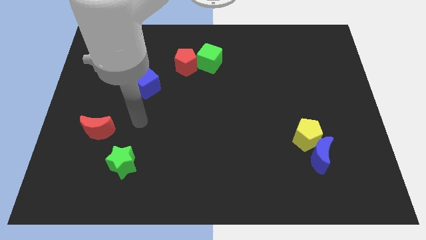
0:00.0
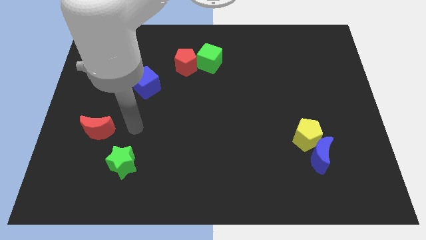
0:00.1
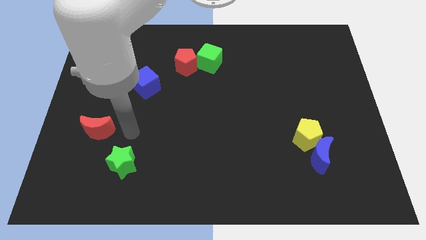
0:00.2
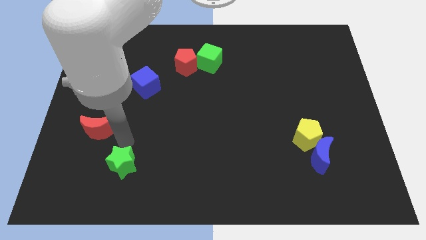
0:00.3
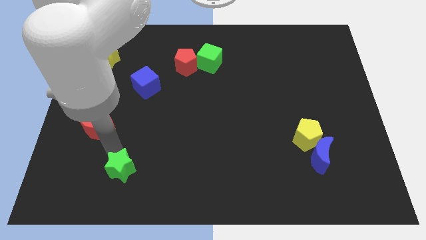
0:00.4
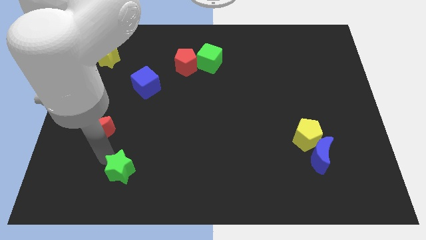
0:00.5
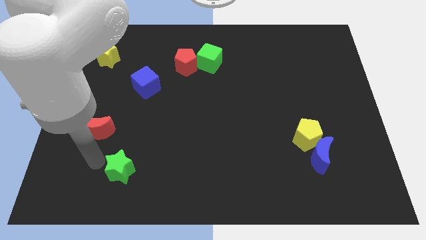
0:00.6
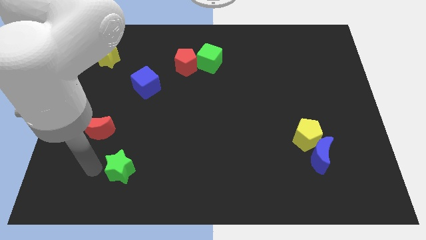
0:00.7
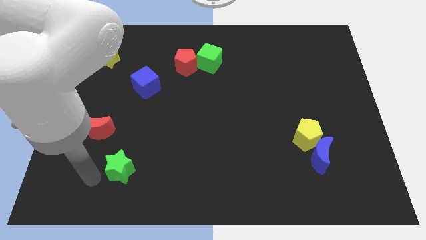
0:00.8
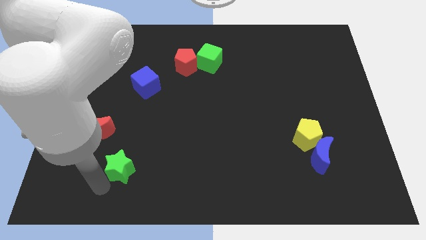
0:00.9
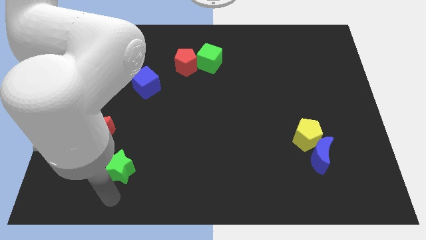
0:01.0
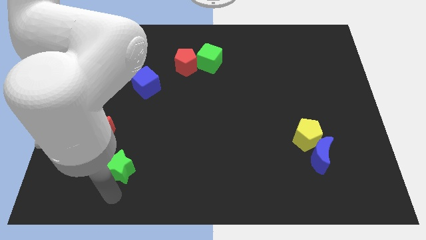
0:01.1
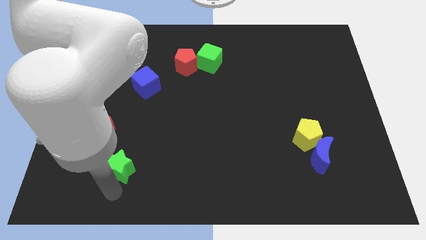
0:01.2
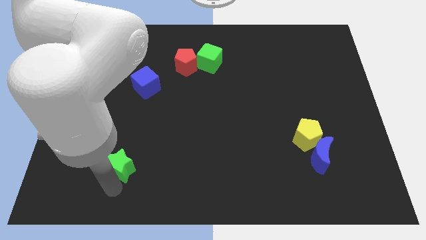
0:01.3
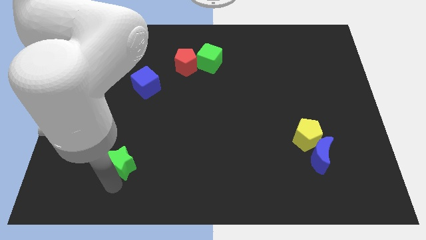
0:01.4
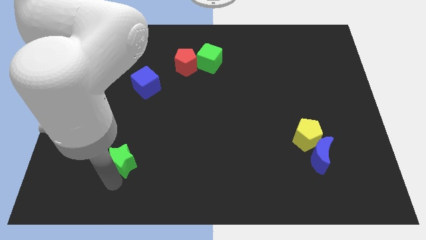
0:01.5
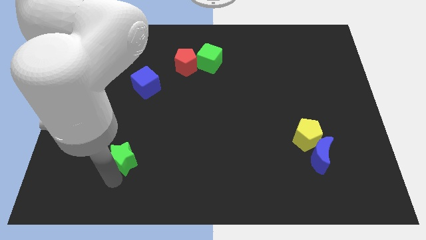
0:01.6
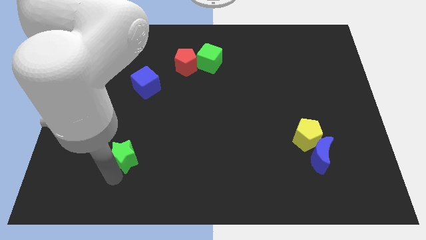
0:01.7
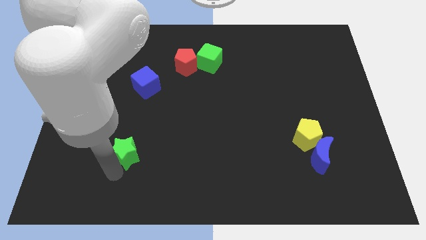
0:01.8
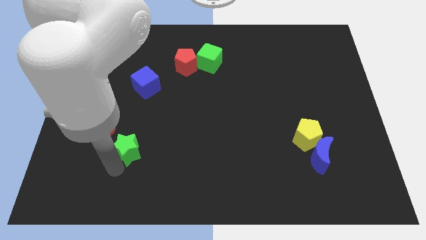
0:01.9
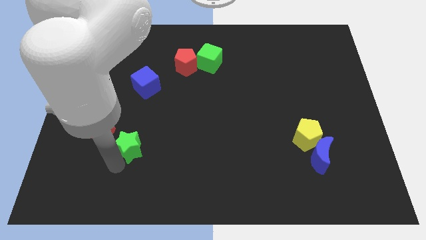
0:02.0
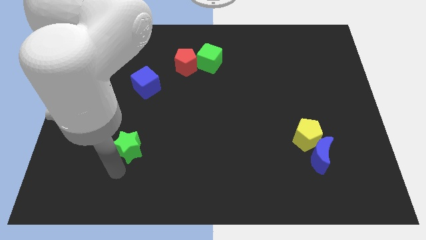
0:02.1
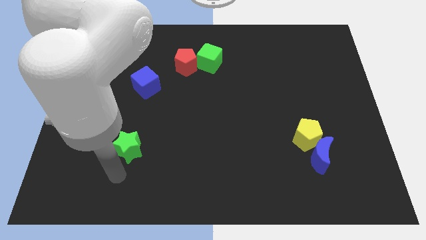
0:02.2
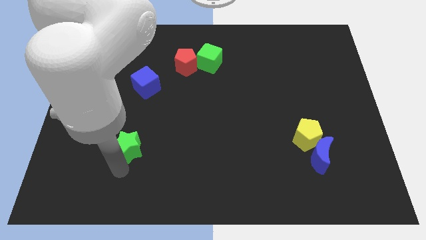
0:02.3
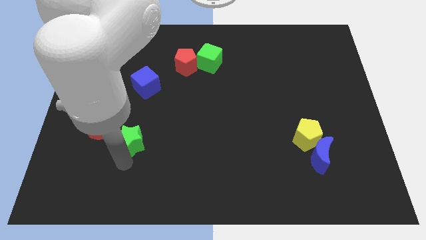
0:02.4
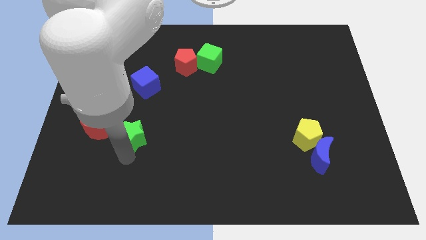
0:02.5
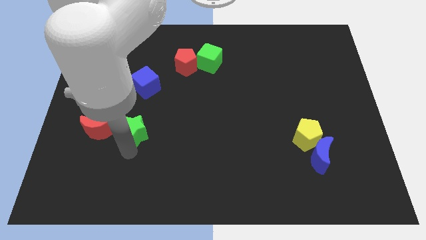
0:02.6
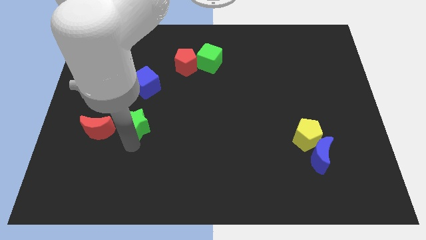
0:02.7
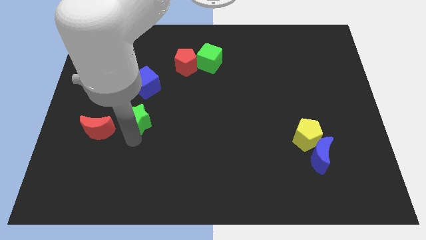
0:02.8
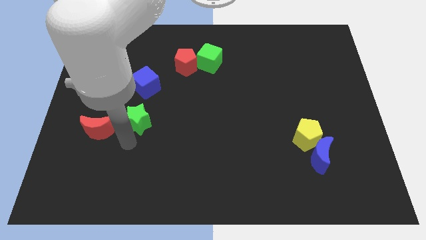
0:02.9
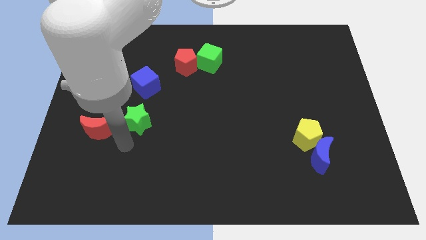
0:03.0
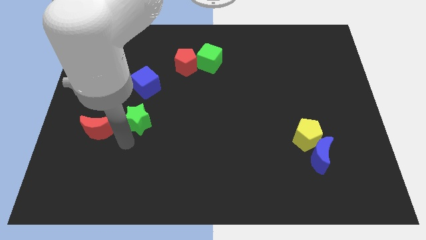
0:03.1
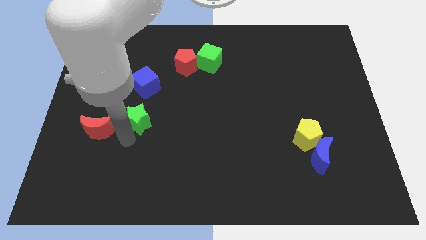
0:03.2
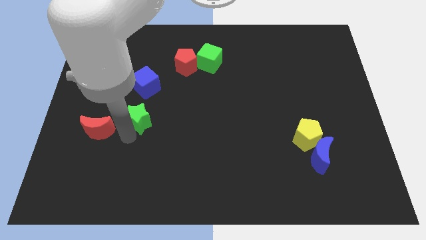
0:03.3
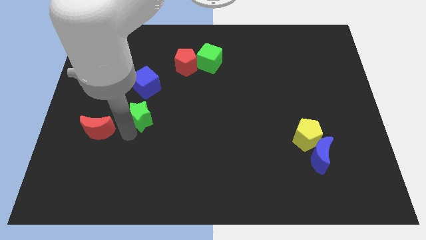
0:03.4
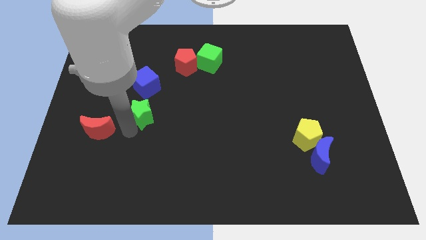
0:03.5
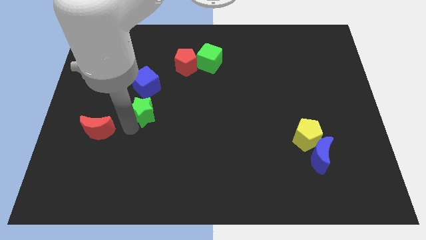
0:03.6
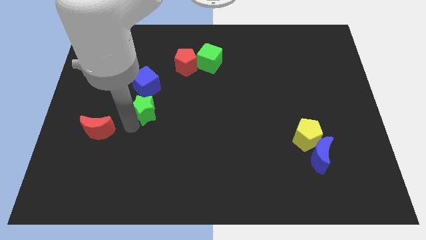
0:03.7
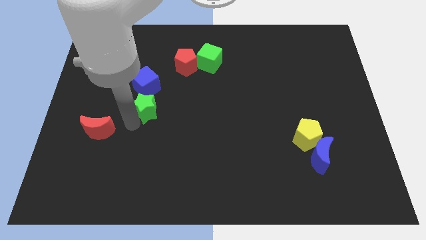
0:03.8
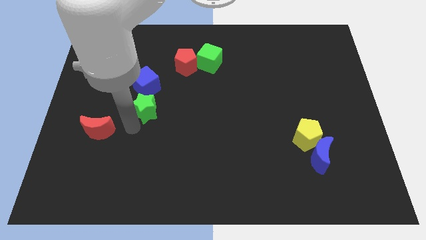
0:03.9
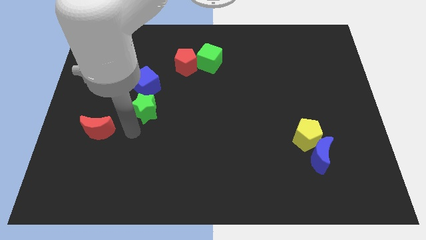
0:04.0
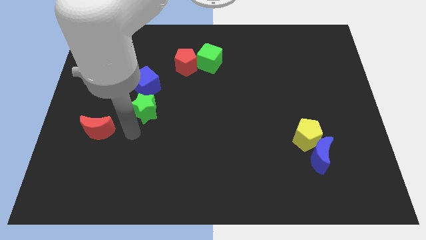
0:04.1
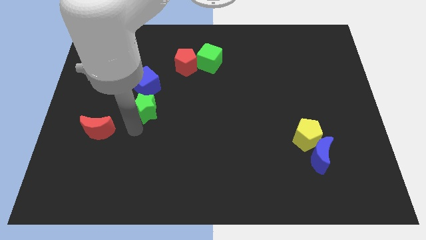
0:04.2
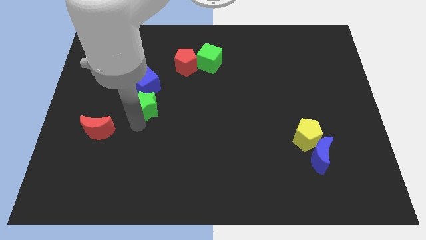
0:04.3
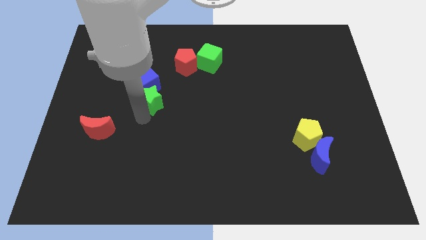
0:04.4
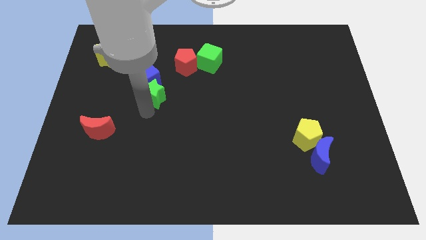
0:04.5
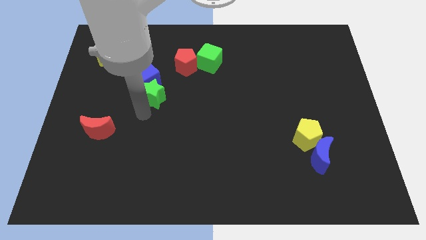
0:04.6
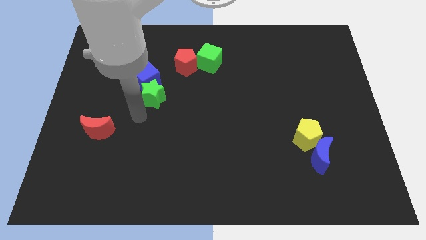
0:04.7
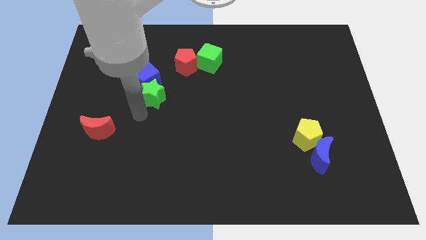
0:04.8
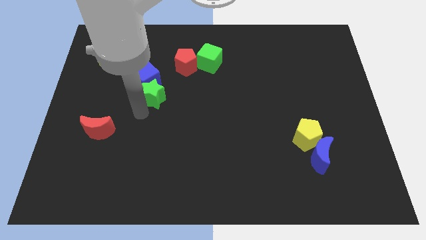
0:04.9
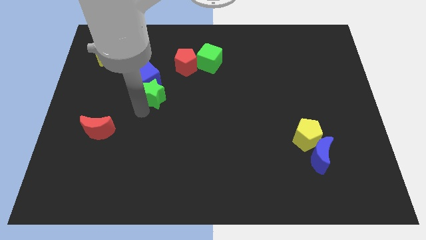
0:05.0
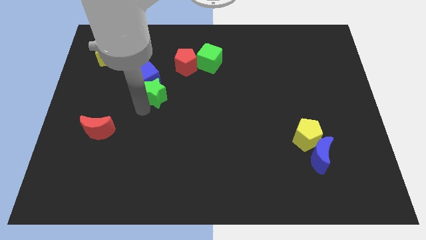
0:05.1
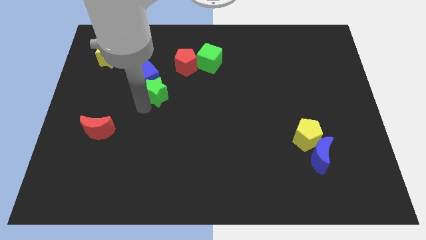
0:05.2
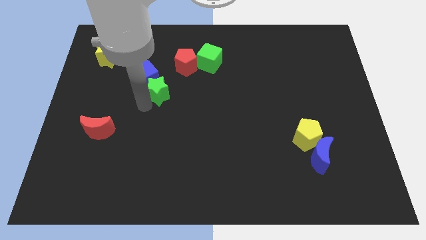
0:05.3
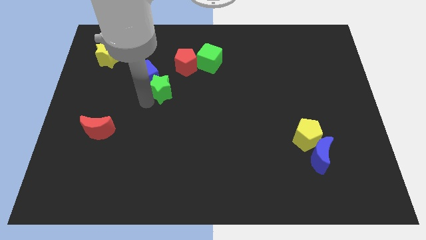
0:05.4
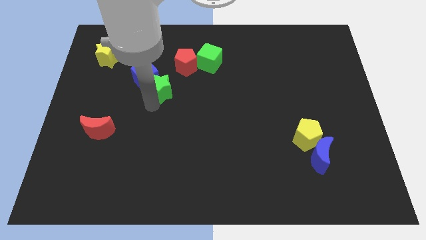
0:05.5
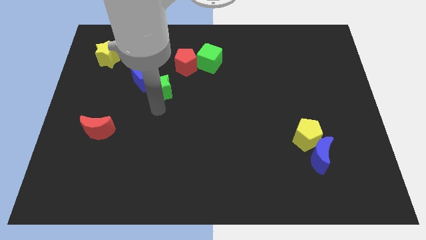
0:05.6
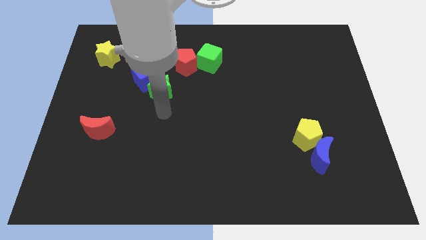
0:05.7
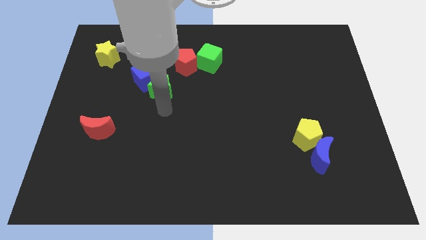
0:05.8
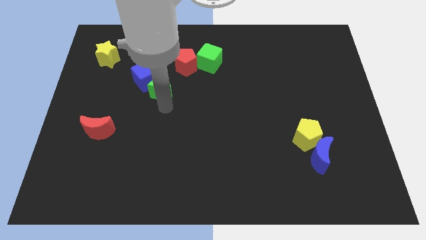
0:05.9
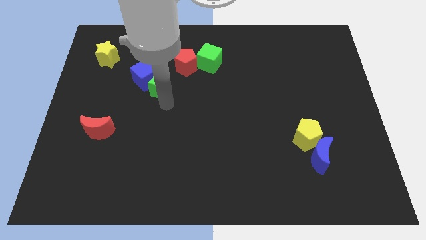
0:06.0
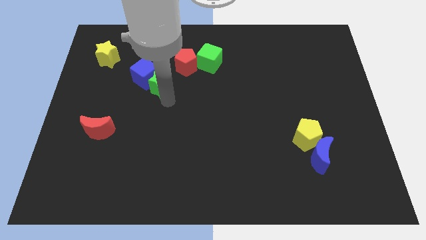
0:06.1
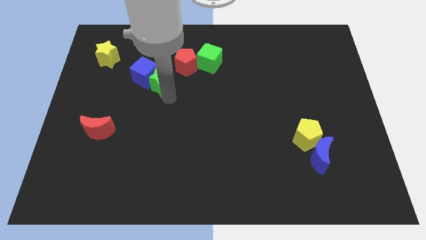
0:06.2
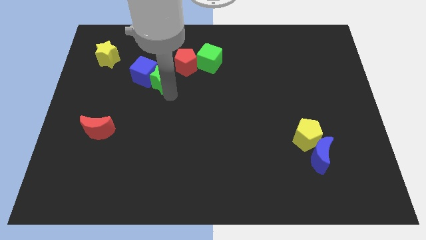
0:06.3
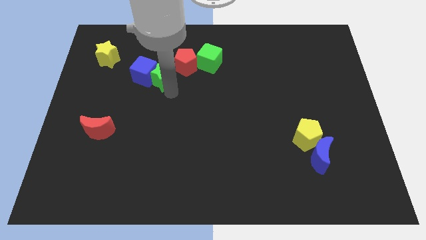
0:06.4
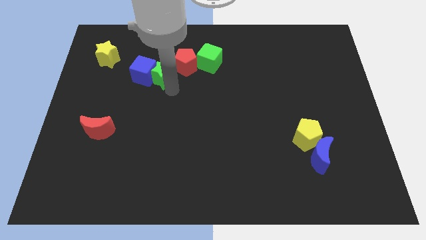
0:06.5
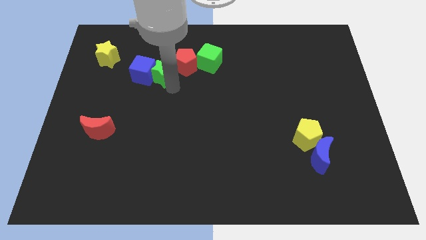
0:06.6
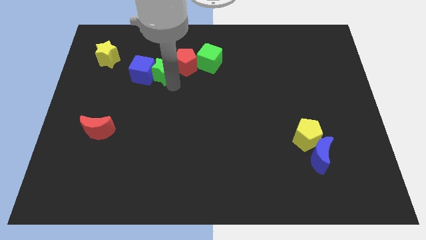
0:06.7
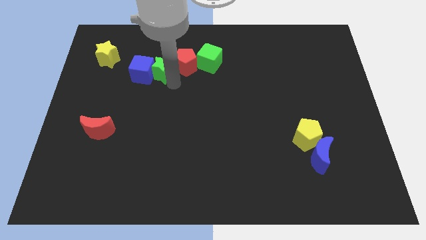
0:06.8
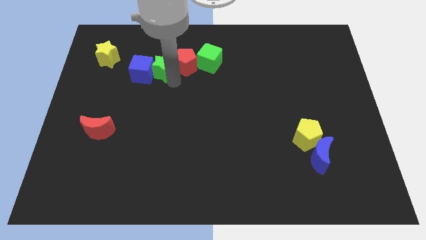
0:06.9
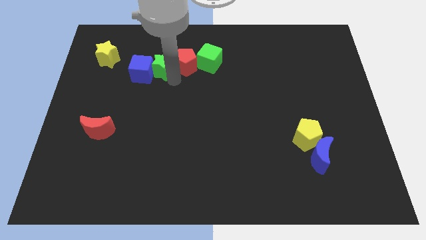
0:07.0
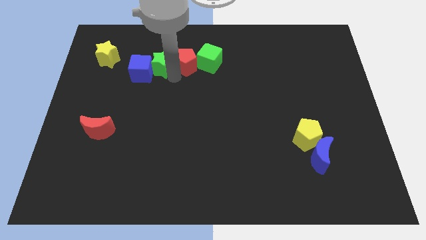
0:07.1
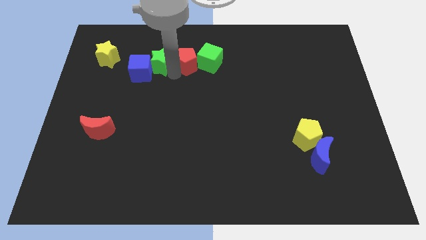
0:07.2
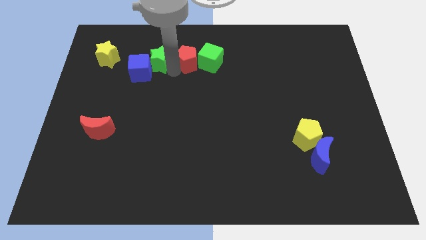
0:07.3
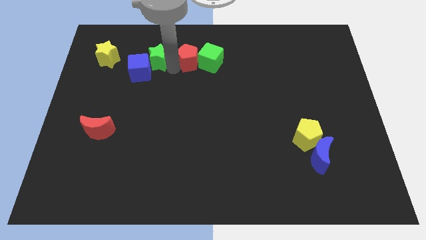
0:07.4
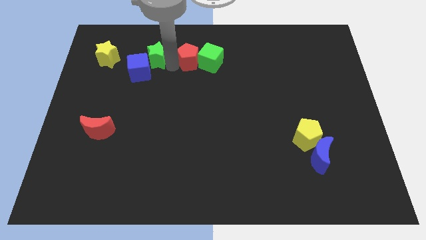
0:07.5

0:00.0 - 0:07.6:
move the green star to the top side of the blue cube
